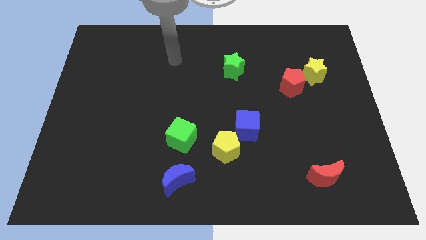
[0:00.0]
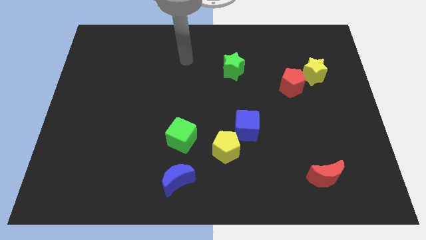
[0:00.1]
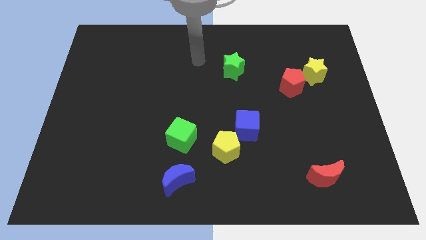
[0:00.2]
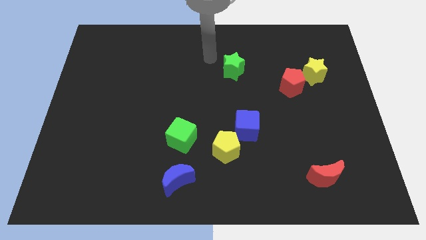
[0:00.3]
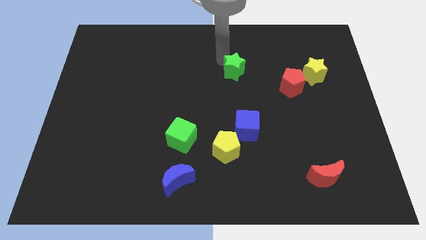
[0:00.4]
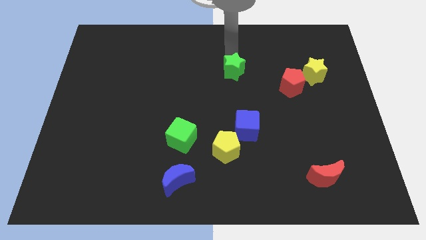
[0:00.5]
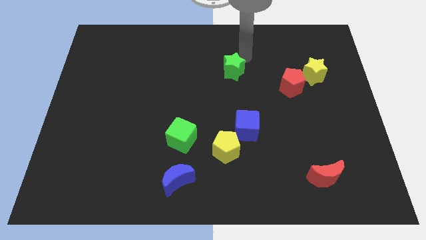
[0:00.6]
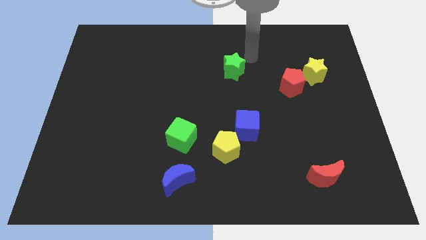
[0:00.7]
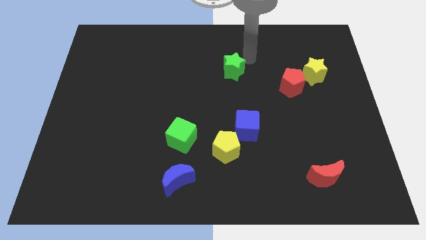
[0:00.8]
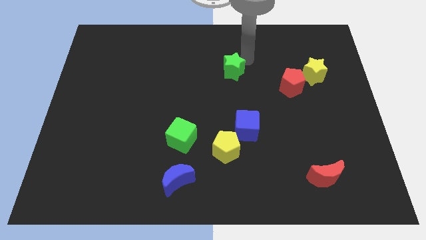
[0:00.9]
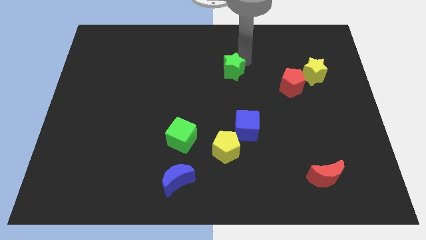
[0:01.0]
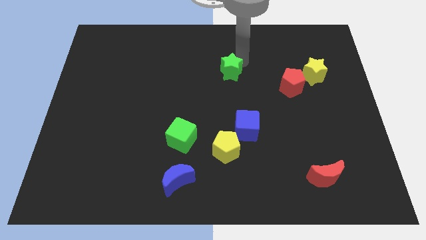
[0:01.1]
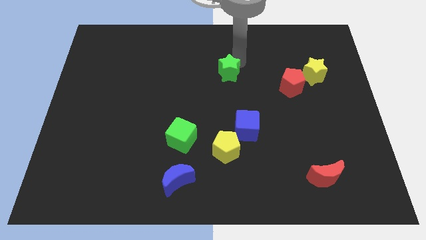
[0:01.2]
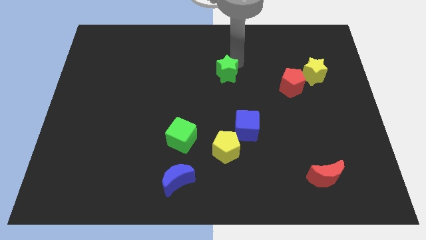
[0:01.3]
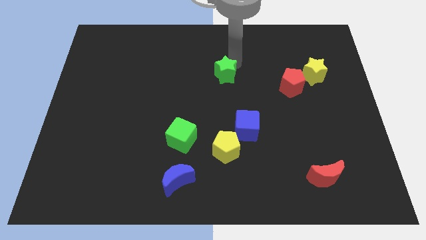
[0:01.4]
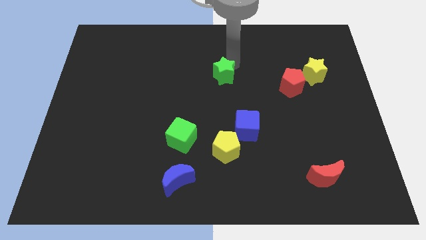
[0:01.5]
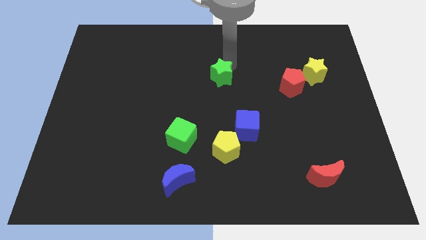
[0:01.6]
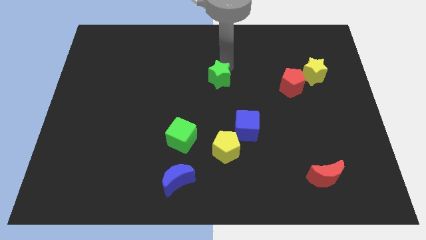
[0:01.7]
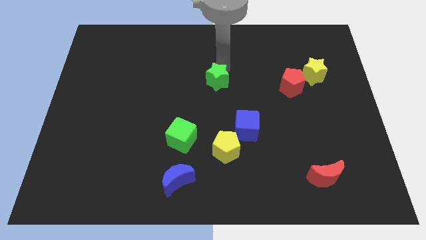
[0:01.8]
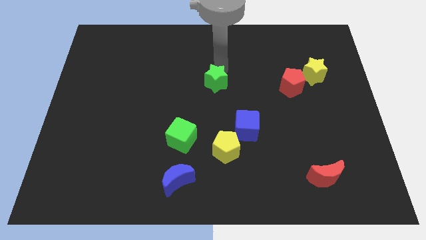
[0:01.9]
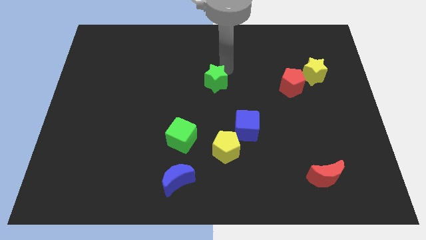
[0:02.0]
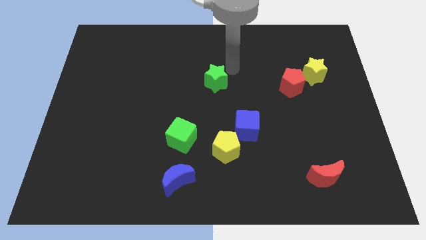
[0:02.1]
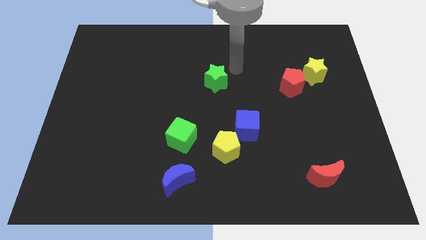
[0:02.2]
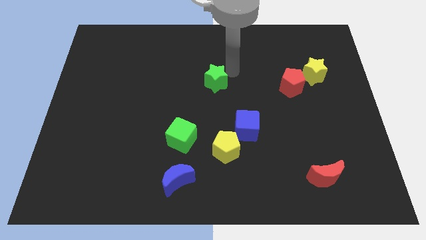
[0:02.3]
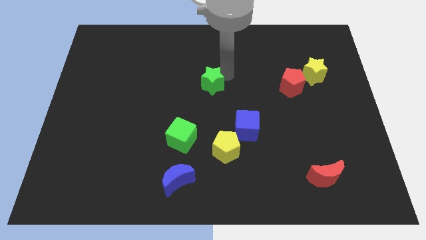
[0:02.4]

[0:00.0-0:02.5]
slightly move the green star downwards and left diagonally

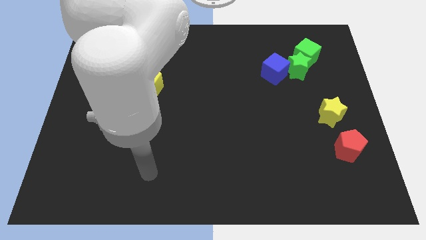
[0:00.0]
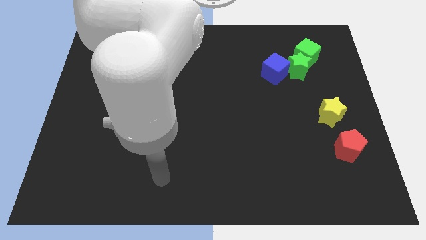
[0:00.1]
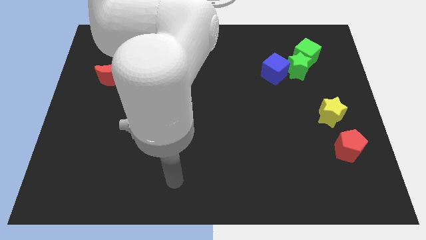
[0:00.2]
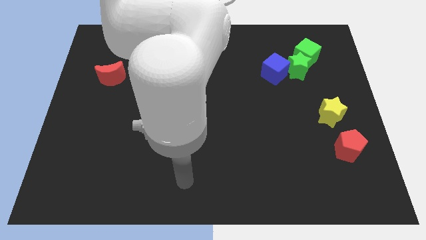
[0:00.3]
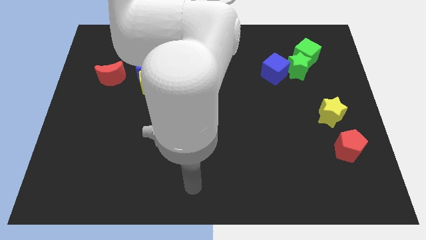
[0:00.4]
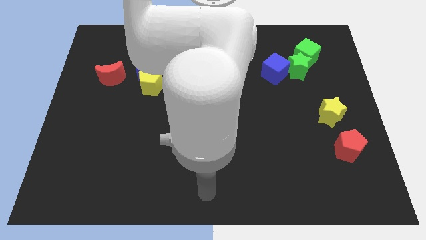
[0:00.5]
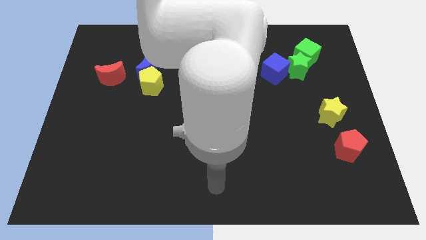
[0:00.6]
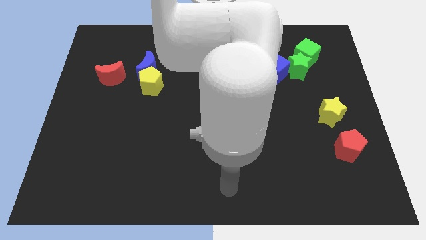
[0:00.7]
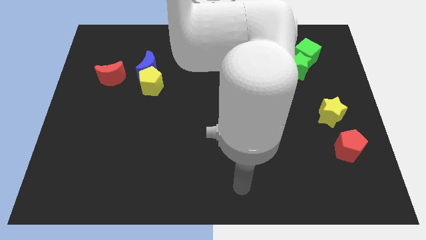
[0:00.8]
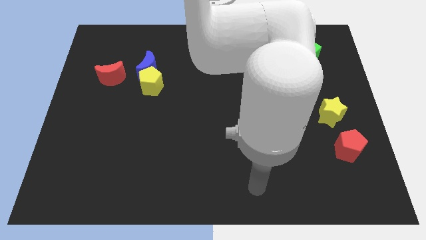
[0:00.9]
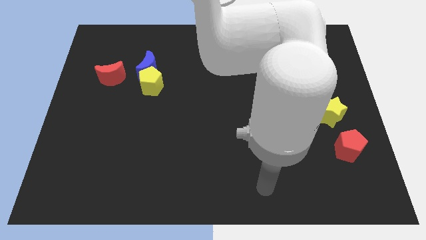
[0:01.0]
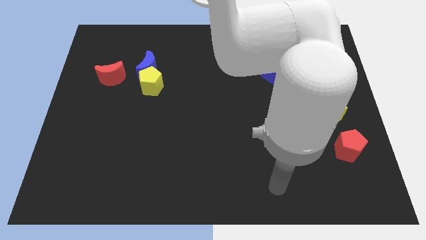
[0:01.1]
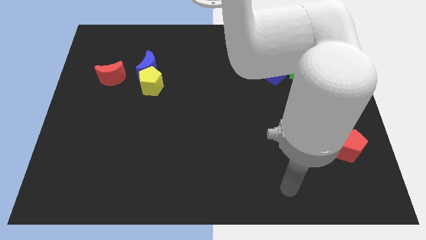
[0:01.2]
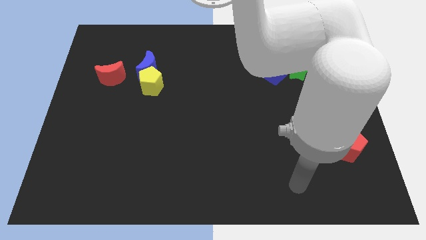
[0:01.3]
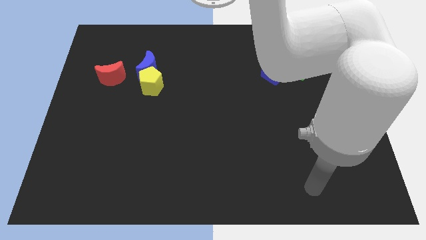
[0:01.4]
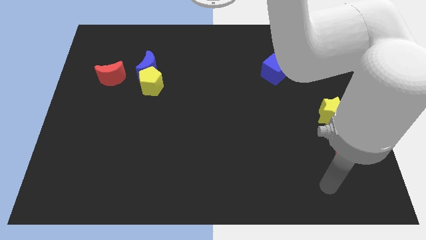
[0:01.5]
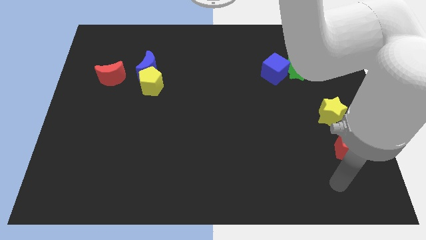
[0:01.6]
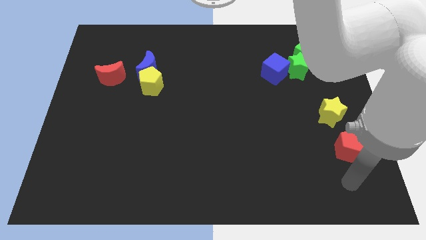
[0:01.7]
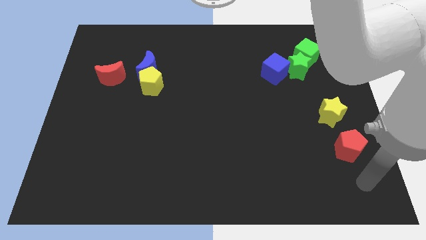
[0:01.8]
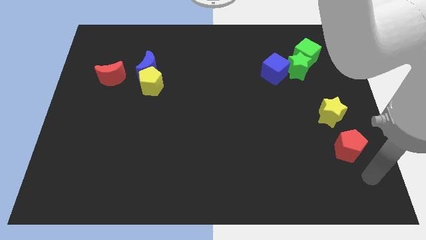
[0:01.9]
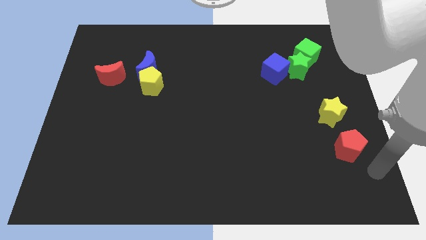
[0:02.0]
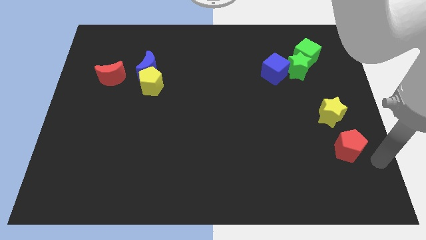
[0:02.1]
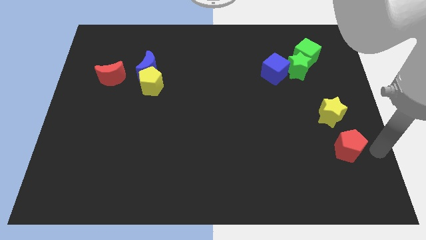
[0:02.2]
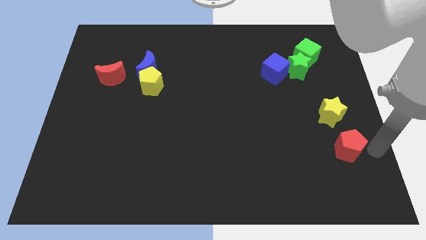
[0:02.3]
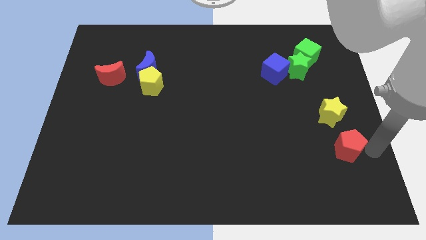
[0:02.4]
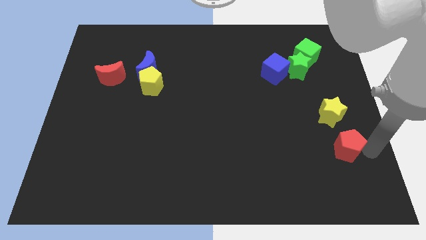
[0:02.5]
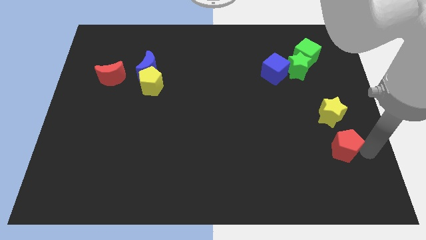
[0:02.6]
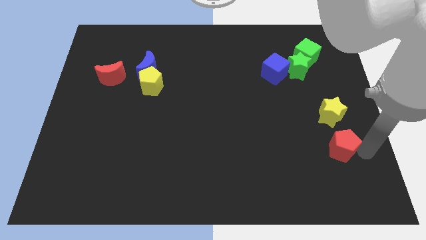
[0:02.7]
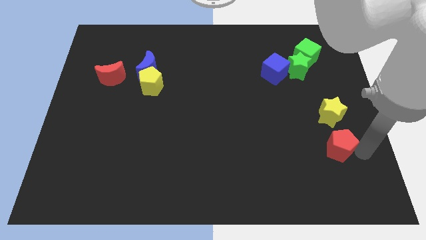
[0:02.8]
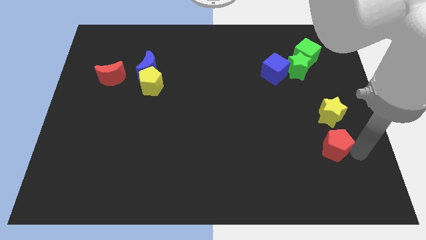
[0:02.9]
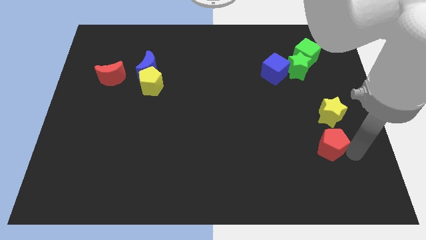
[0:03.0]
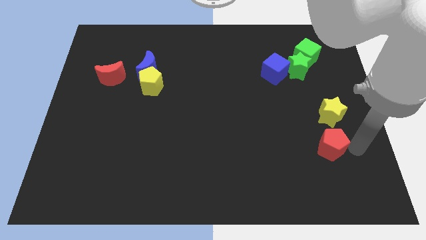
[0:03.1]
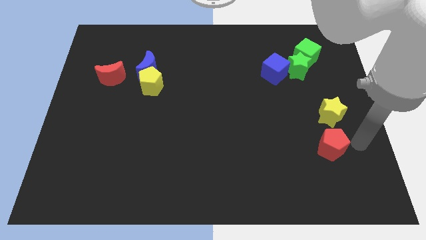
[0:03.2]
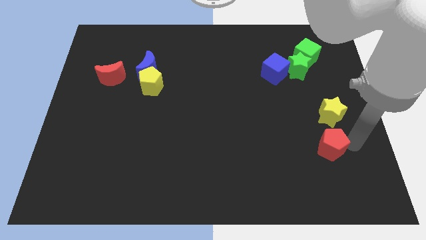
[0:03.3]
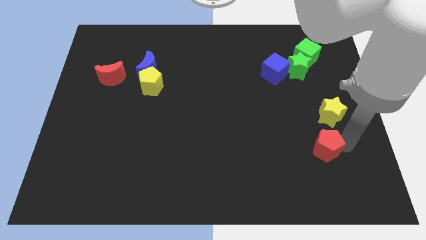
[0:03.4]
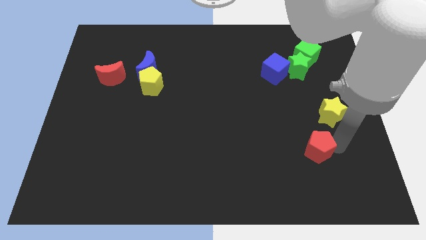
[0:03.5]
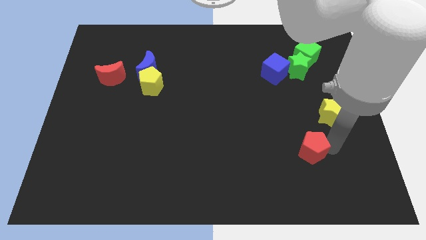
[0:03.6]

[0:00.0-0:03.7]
slightly move the red pentagon to the left

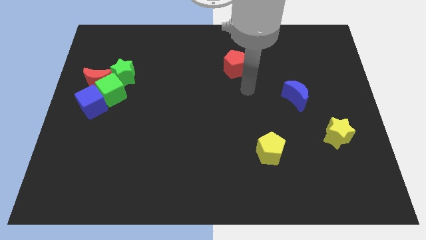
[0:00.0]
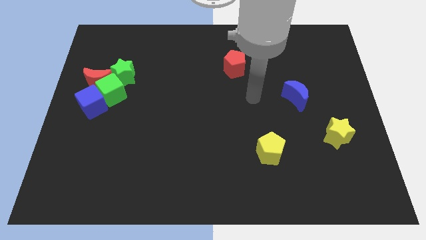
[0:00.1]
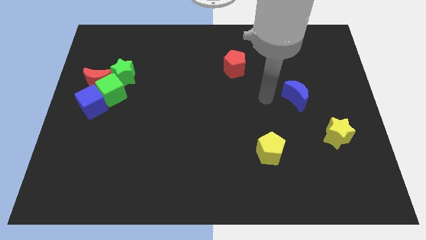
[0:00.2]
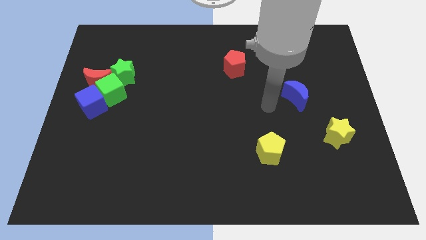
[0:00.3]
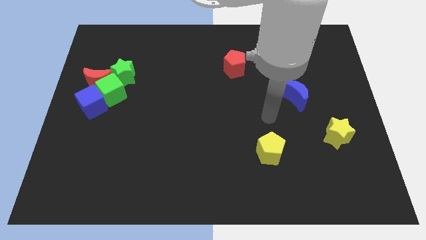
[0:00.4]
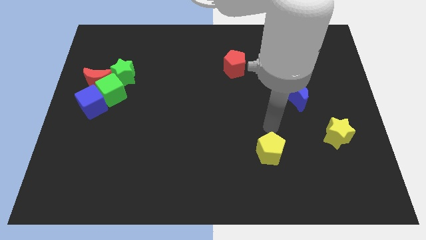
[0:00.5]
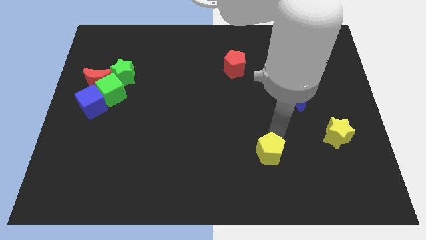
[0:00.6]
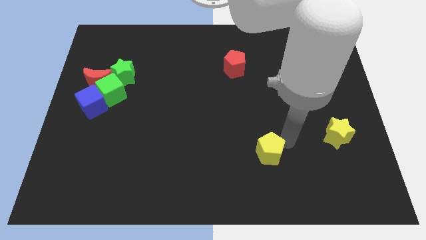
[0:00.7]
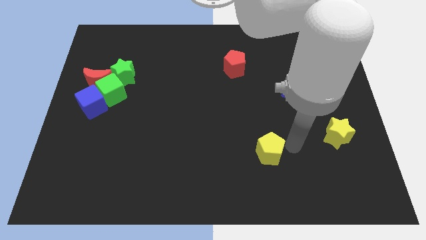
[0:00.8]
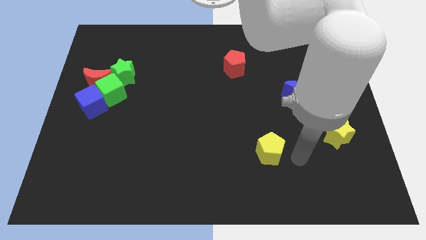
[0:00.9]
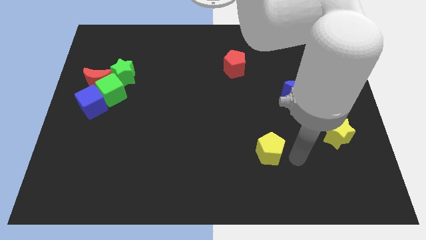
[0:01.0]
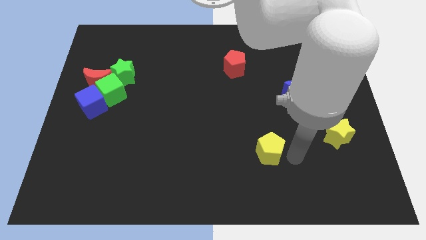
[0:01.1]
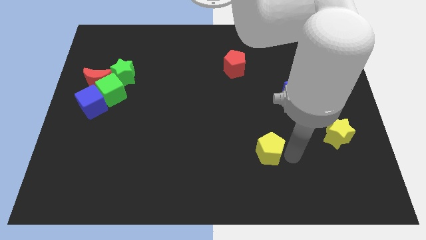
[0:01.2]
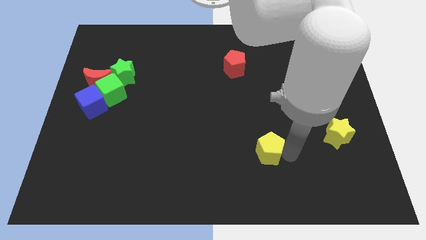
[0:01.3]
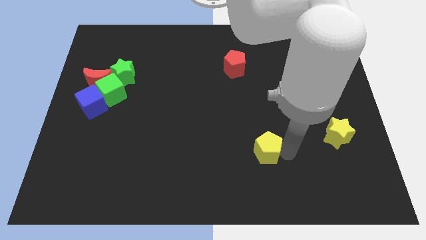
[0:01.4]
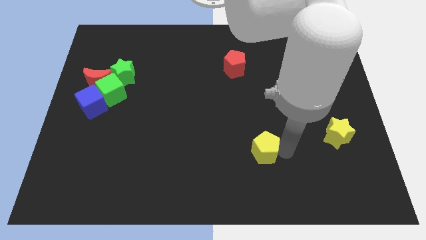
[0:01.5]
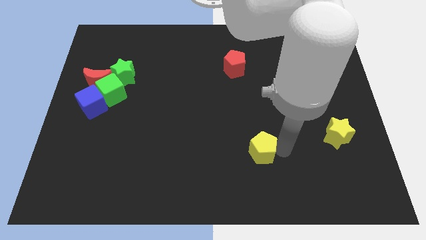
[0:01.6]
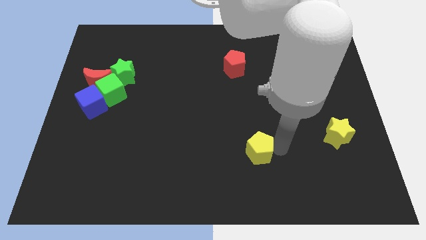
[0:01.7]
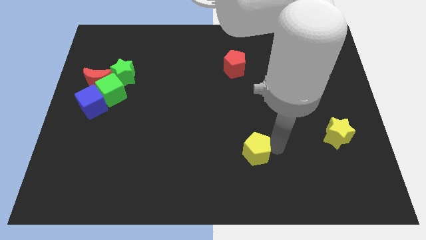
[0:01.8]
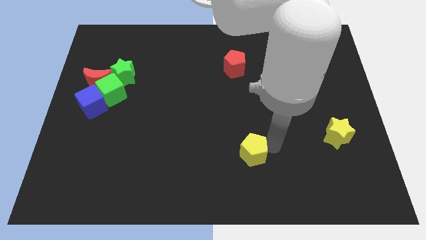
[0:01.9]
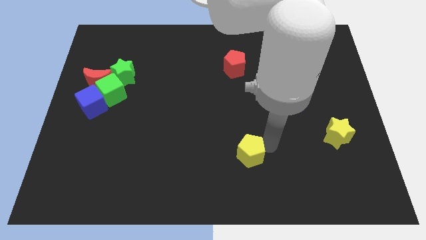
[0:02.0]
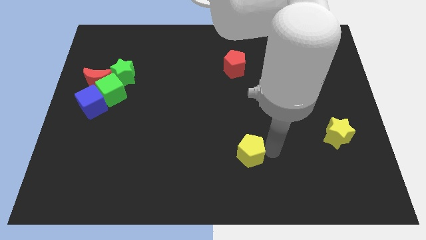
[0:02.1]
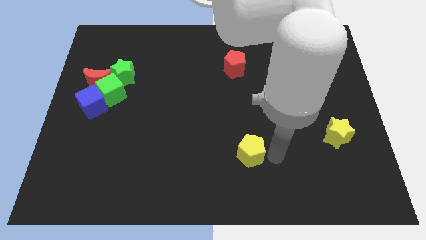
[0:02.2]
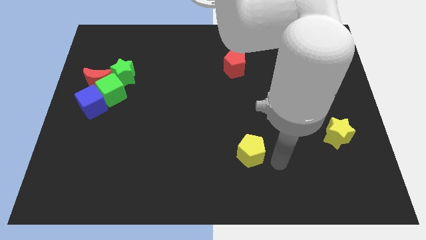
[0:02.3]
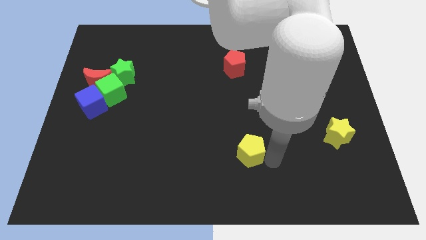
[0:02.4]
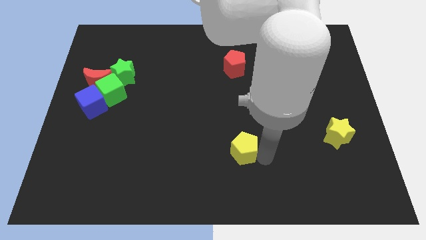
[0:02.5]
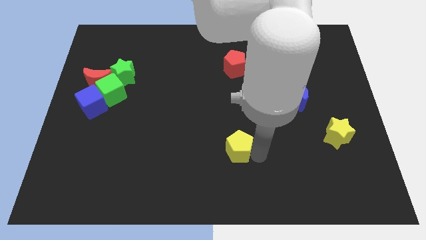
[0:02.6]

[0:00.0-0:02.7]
push the yellow pentagon a little bit to the left
